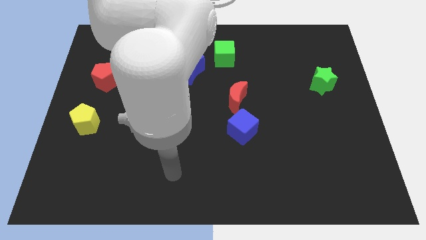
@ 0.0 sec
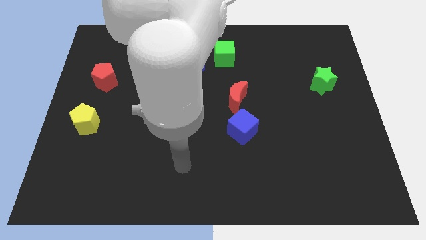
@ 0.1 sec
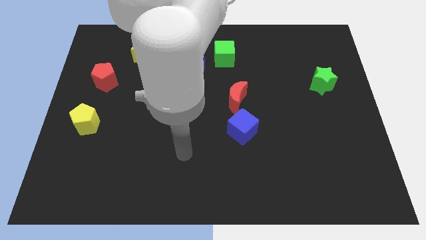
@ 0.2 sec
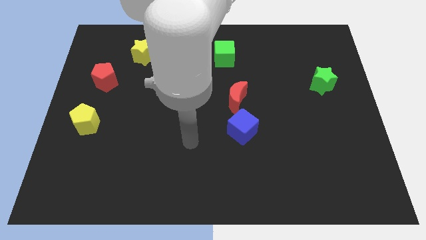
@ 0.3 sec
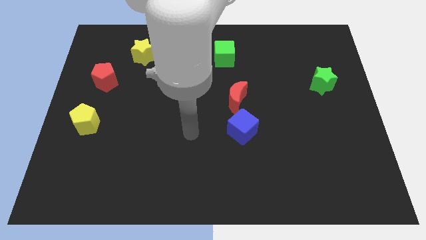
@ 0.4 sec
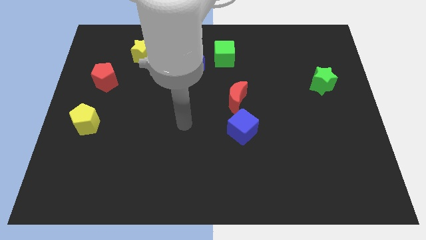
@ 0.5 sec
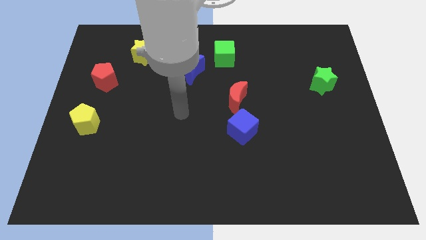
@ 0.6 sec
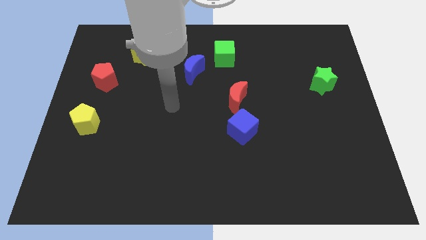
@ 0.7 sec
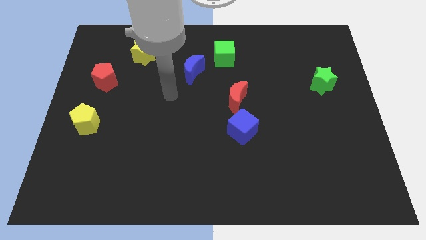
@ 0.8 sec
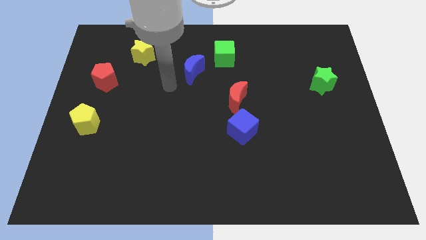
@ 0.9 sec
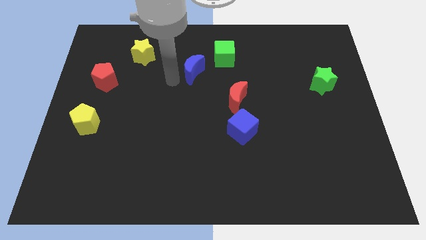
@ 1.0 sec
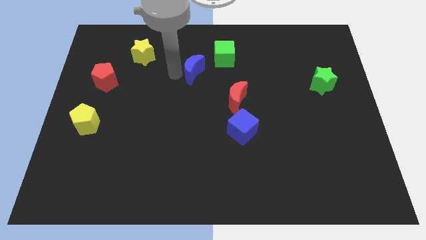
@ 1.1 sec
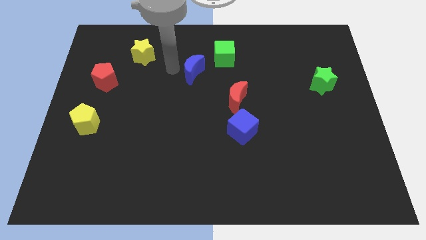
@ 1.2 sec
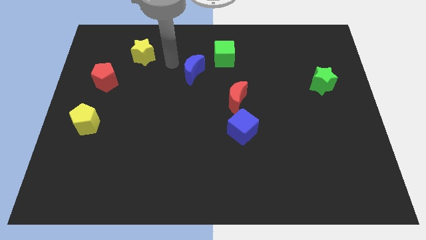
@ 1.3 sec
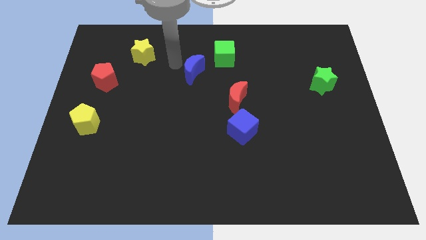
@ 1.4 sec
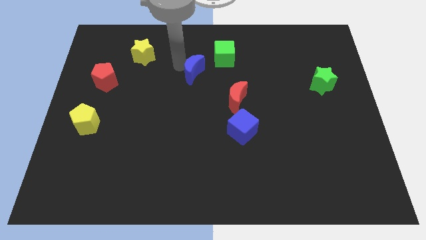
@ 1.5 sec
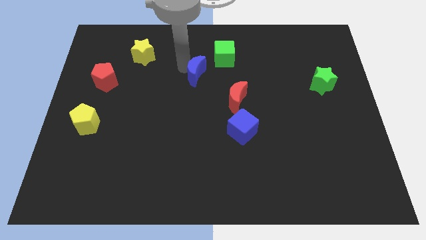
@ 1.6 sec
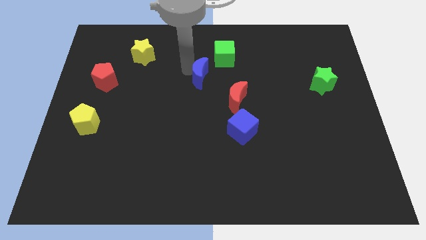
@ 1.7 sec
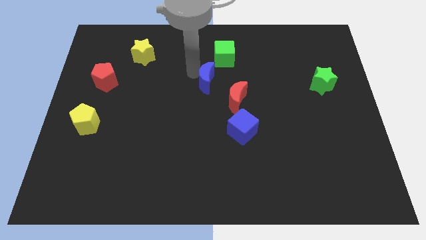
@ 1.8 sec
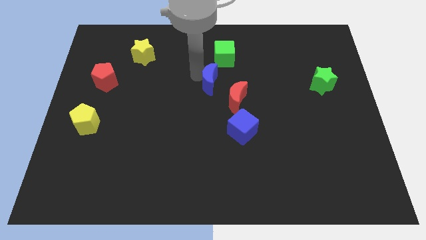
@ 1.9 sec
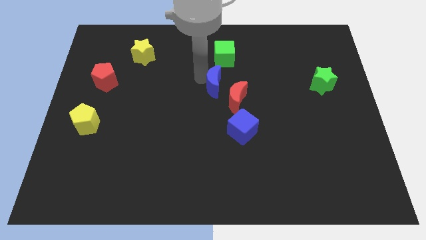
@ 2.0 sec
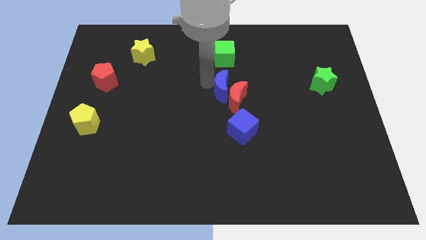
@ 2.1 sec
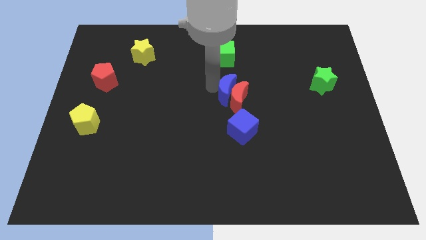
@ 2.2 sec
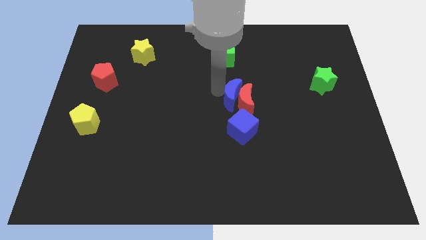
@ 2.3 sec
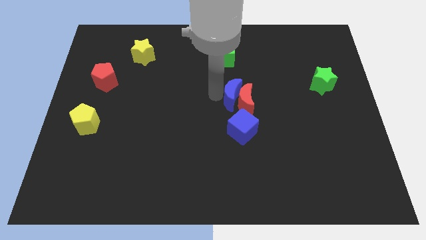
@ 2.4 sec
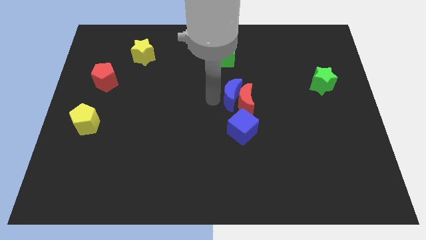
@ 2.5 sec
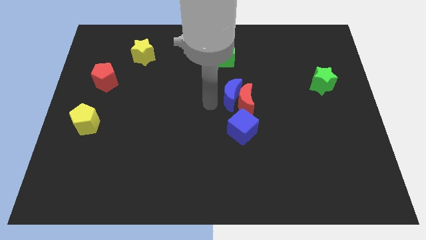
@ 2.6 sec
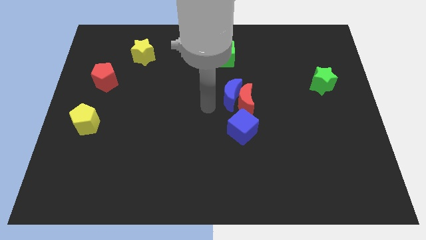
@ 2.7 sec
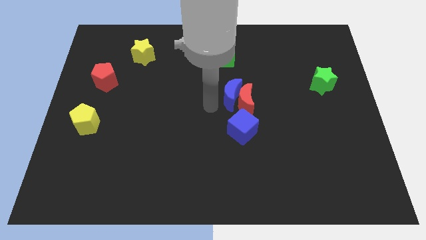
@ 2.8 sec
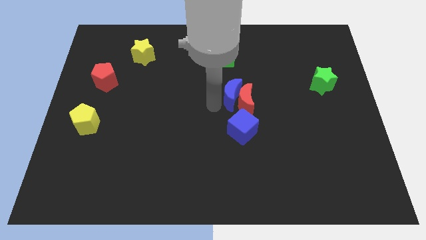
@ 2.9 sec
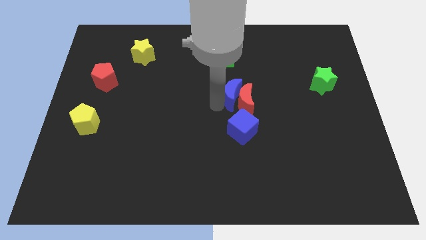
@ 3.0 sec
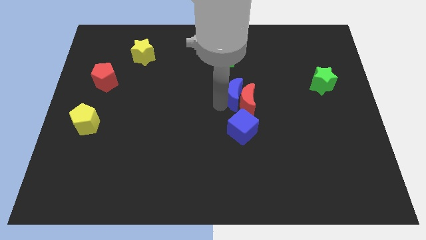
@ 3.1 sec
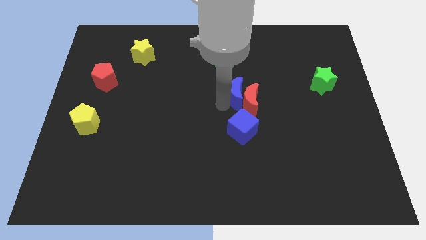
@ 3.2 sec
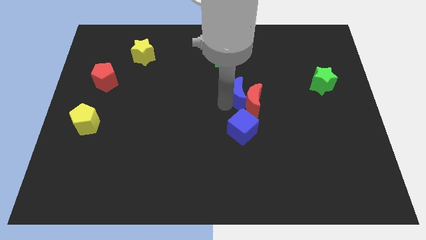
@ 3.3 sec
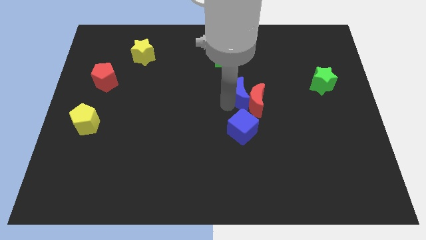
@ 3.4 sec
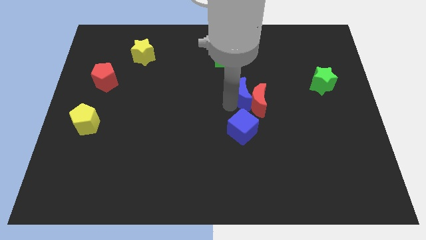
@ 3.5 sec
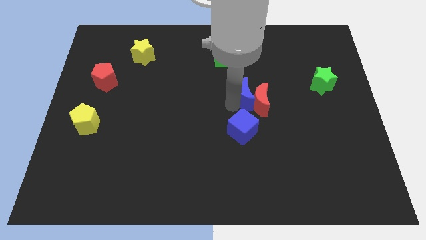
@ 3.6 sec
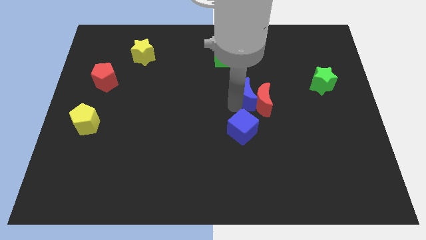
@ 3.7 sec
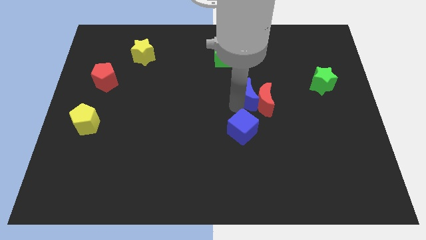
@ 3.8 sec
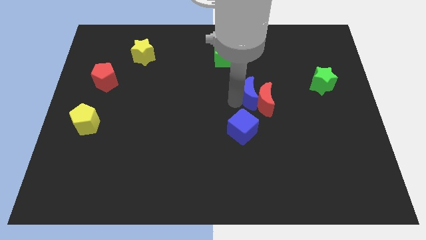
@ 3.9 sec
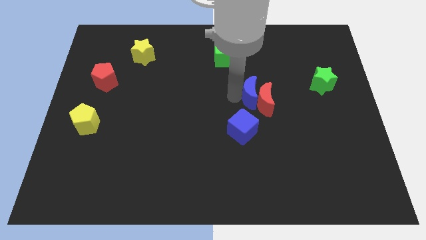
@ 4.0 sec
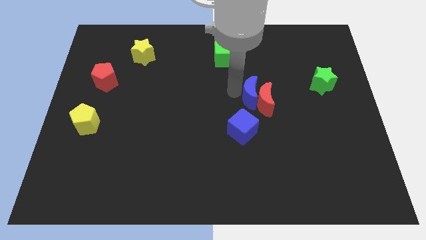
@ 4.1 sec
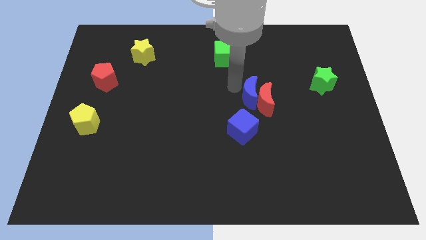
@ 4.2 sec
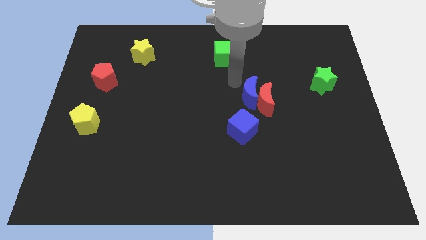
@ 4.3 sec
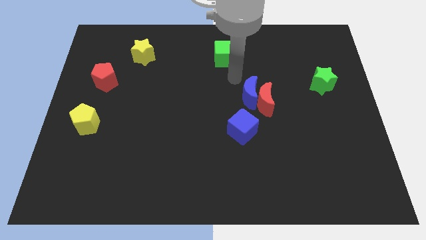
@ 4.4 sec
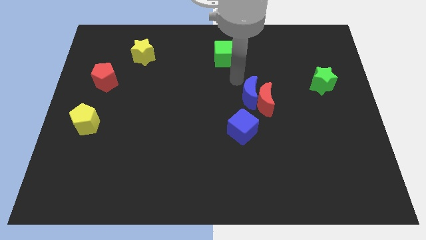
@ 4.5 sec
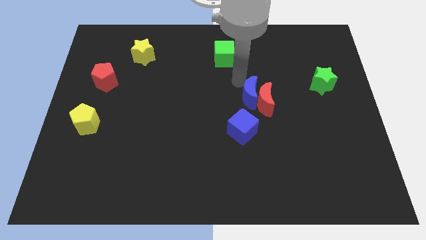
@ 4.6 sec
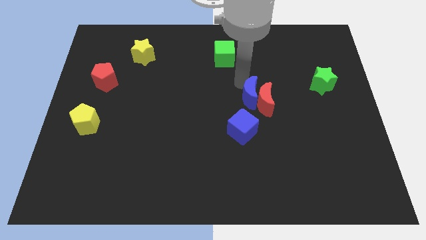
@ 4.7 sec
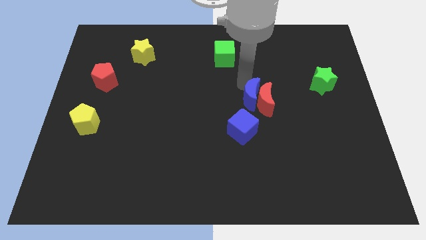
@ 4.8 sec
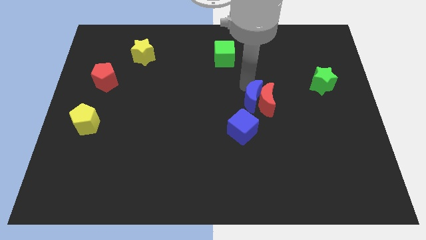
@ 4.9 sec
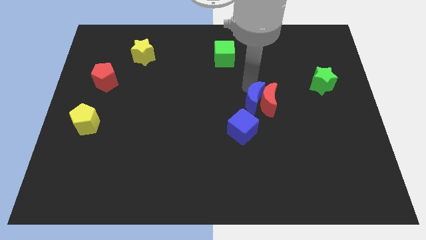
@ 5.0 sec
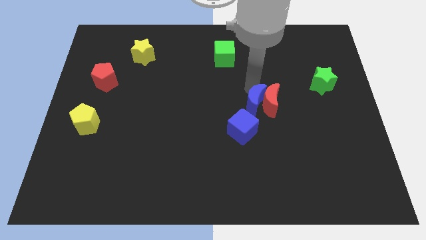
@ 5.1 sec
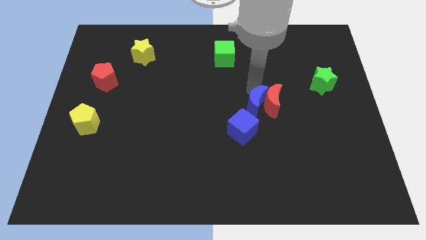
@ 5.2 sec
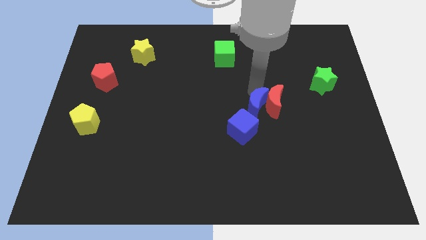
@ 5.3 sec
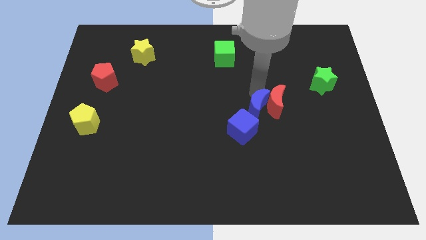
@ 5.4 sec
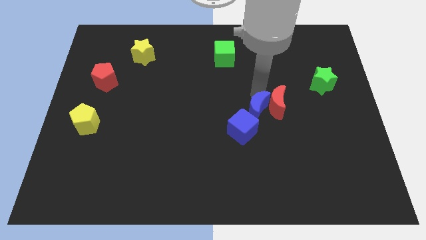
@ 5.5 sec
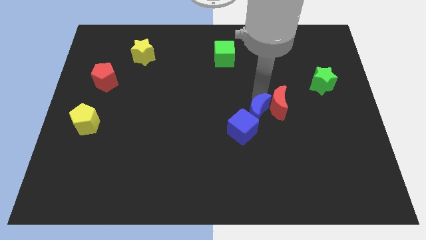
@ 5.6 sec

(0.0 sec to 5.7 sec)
push the blue moon down and right

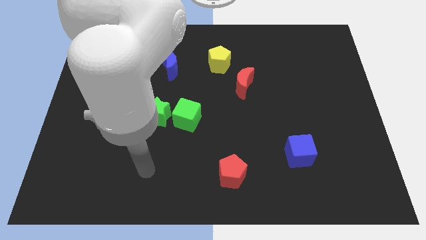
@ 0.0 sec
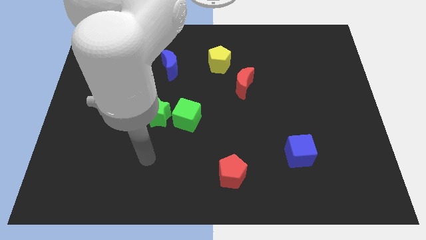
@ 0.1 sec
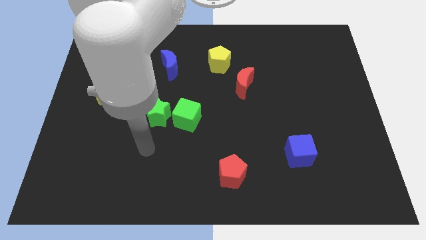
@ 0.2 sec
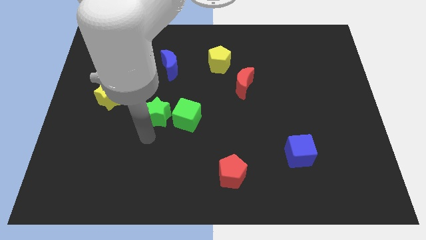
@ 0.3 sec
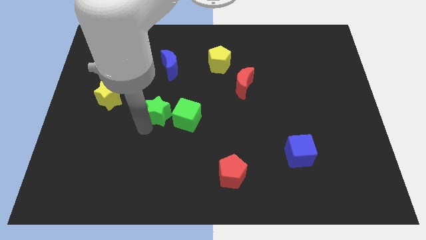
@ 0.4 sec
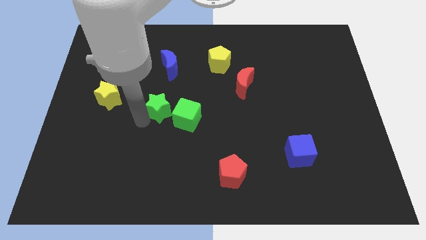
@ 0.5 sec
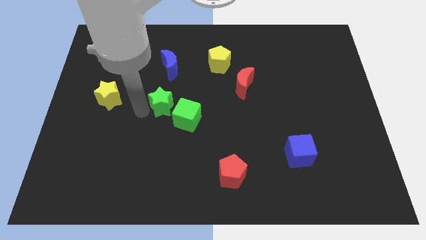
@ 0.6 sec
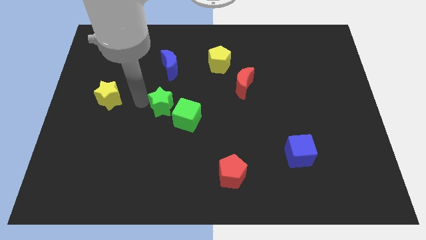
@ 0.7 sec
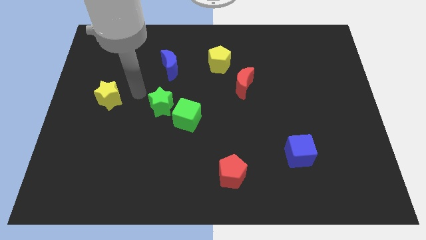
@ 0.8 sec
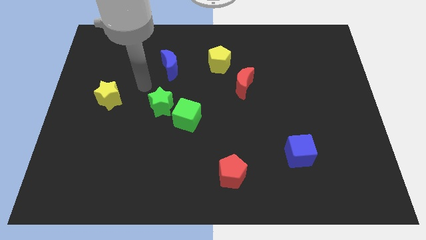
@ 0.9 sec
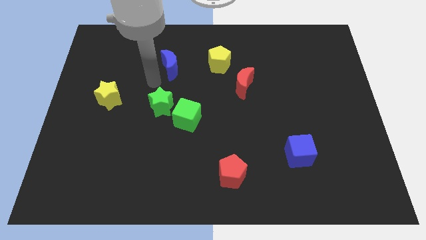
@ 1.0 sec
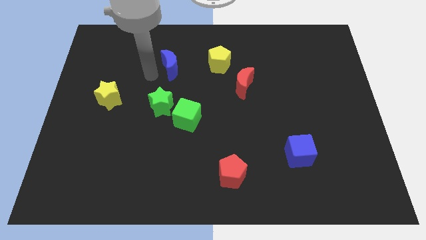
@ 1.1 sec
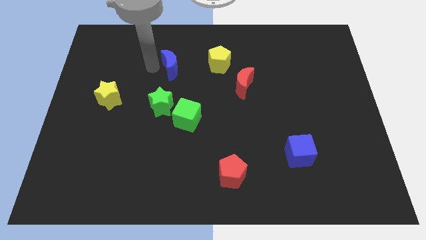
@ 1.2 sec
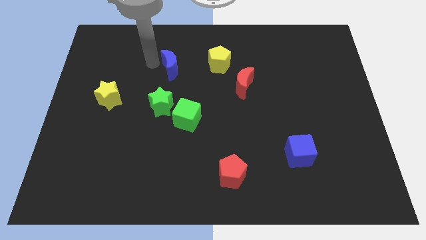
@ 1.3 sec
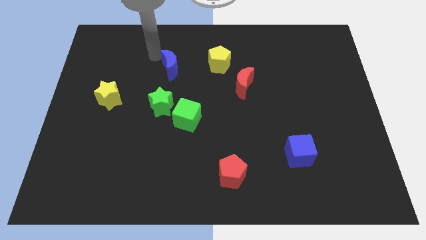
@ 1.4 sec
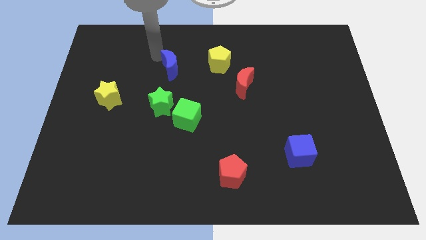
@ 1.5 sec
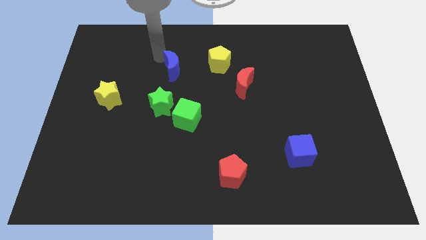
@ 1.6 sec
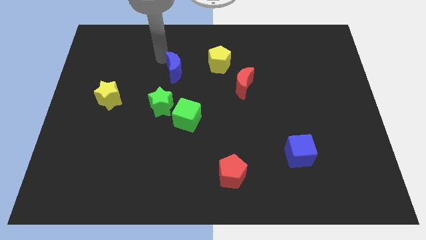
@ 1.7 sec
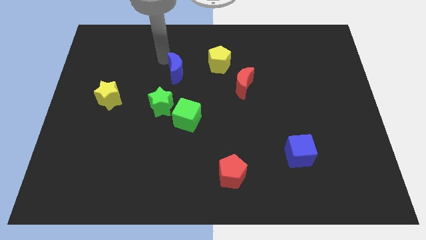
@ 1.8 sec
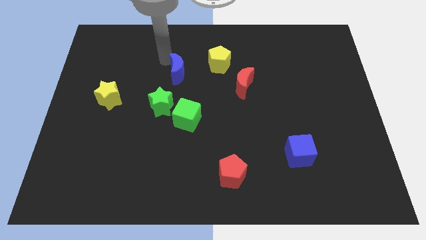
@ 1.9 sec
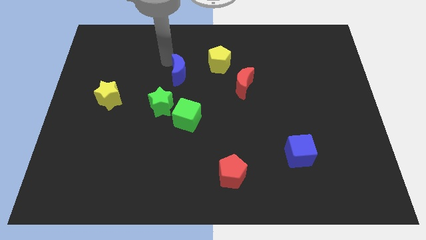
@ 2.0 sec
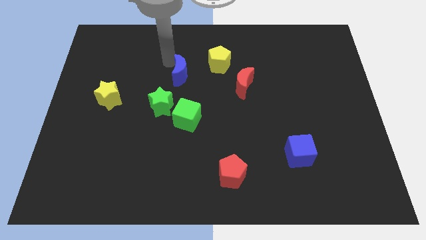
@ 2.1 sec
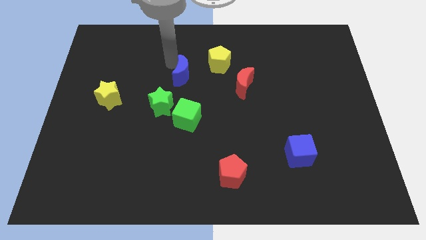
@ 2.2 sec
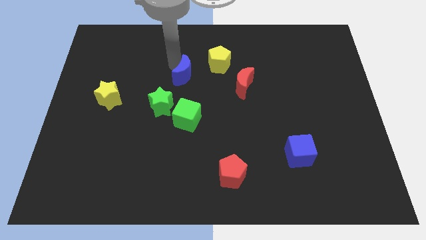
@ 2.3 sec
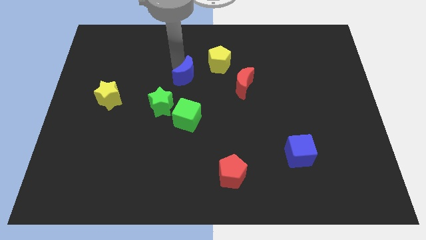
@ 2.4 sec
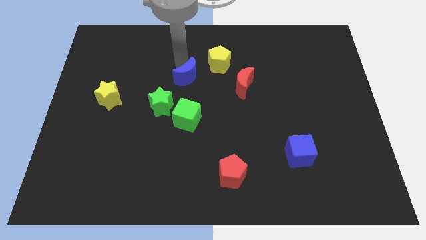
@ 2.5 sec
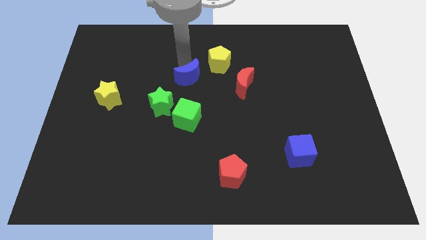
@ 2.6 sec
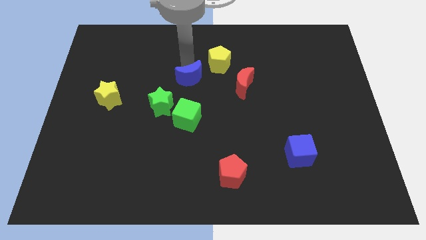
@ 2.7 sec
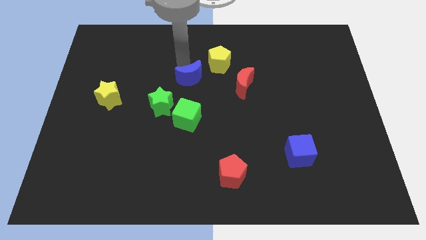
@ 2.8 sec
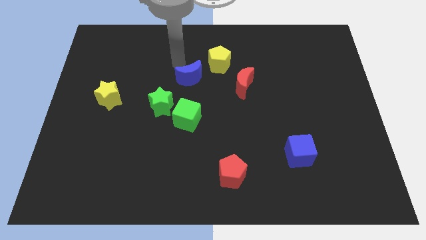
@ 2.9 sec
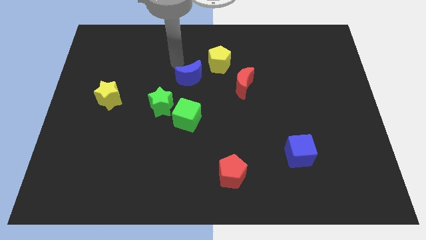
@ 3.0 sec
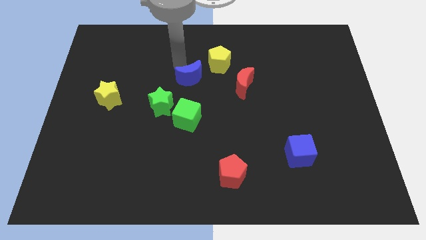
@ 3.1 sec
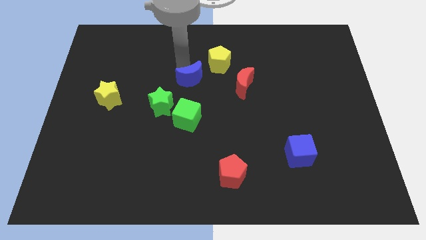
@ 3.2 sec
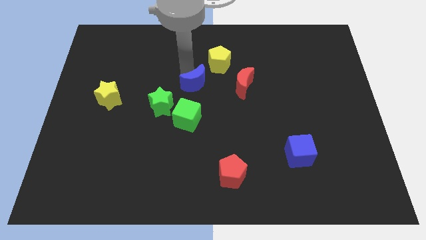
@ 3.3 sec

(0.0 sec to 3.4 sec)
push the blue moon diagonally down and right slightly
